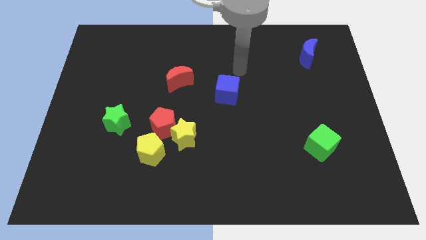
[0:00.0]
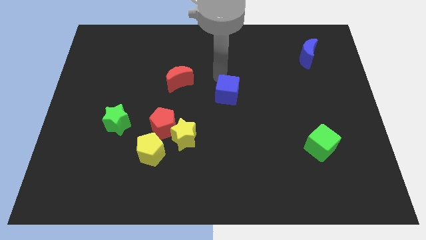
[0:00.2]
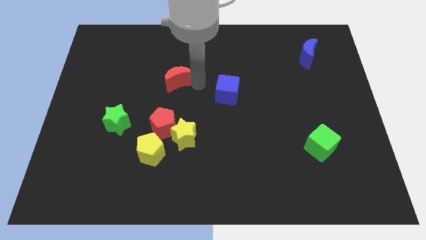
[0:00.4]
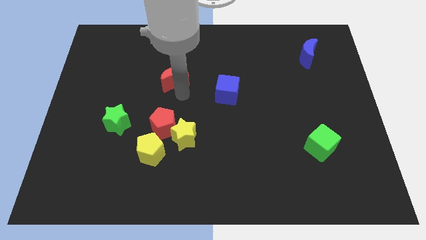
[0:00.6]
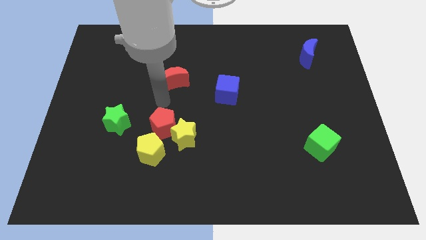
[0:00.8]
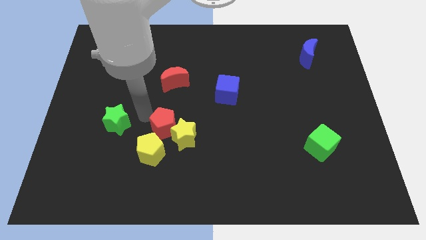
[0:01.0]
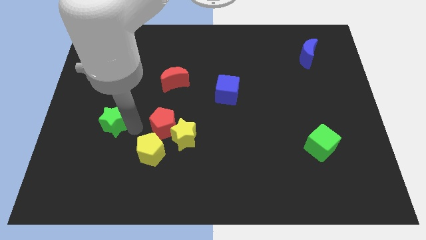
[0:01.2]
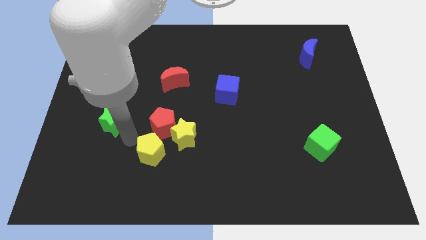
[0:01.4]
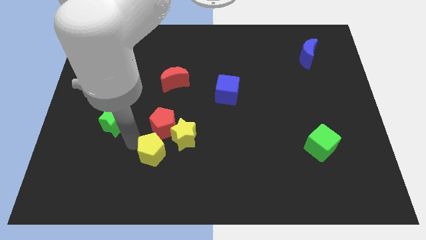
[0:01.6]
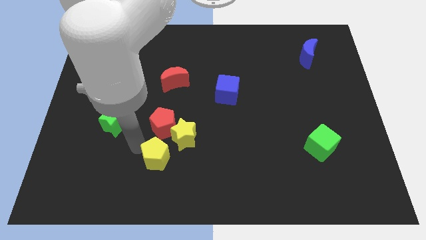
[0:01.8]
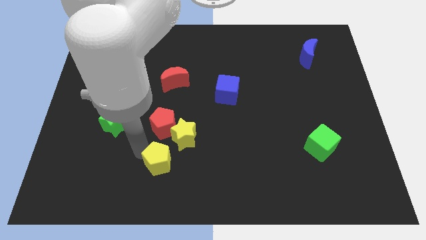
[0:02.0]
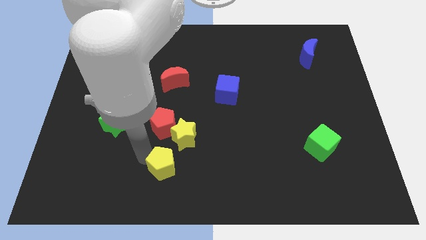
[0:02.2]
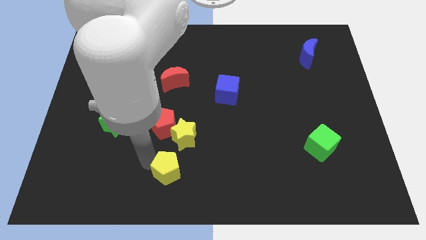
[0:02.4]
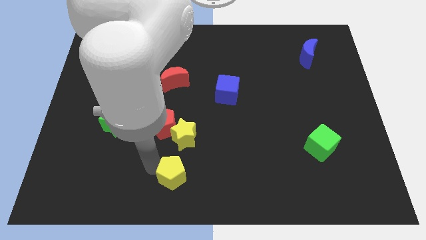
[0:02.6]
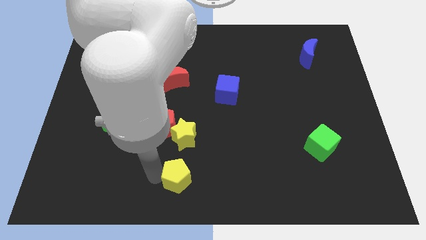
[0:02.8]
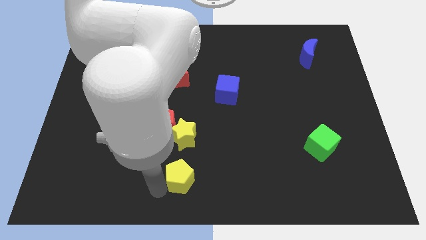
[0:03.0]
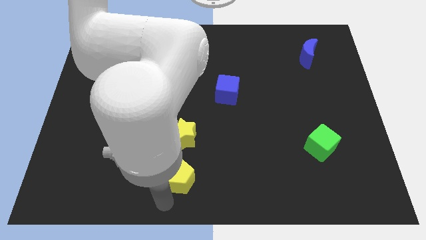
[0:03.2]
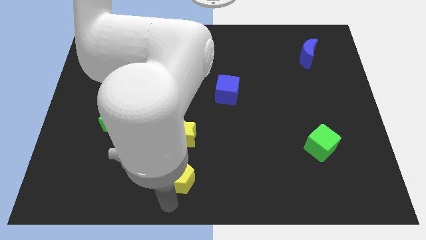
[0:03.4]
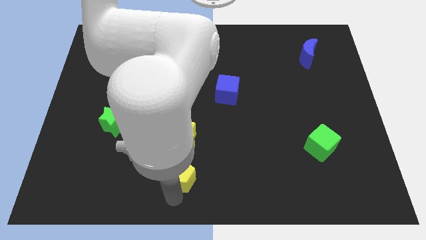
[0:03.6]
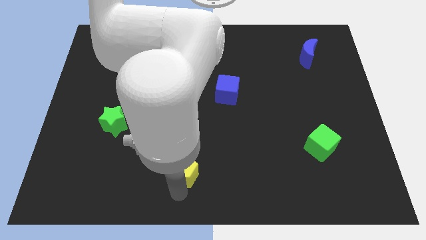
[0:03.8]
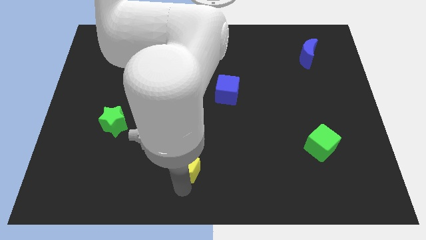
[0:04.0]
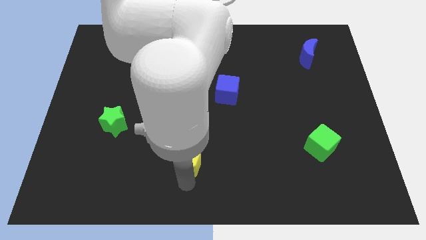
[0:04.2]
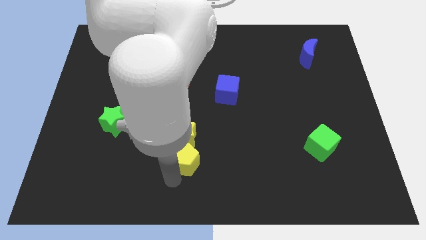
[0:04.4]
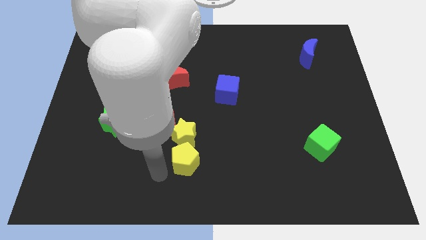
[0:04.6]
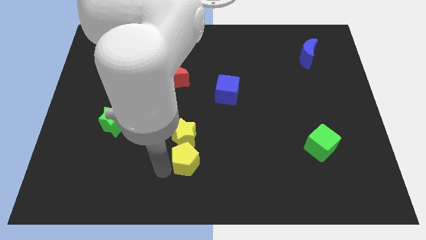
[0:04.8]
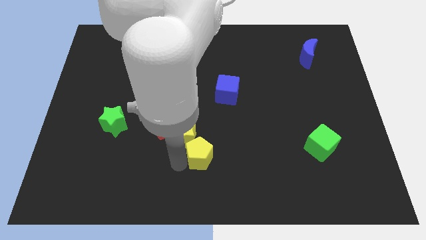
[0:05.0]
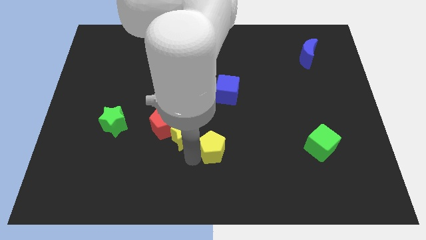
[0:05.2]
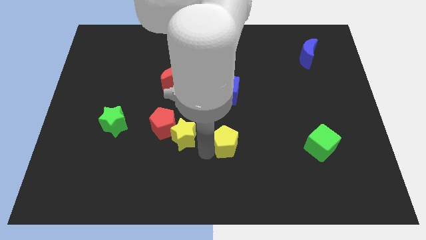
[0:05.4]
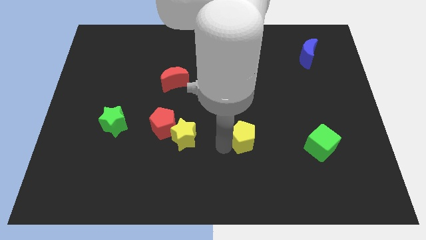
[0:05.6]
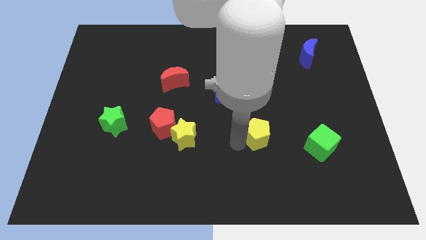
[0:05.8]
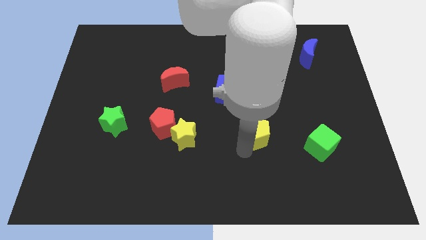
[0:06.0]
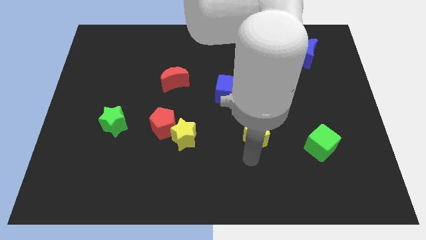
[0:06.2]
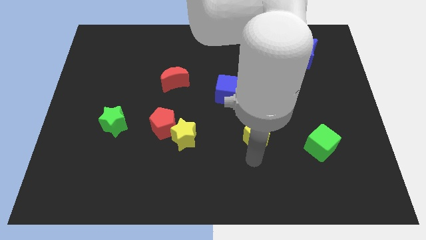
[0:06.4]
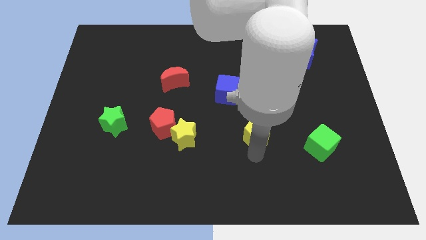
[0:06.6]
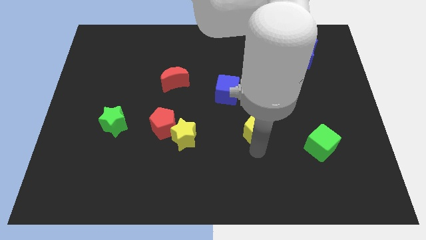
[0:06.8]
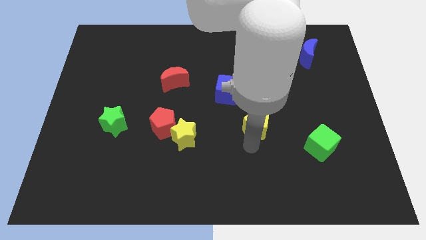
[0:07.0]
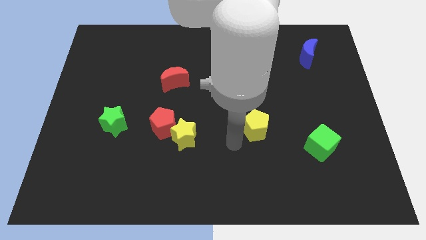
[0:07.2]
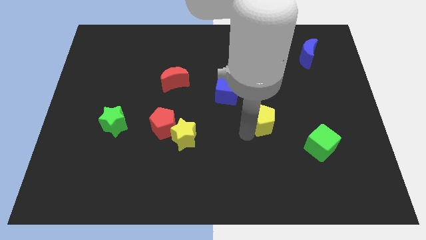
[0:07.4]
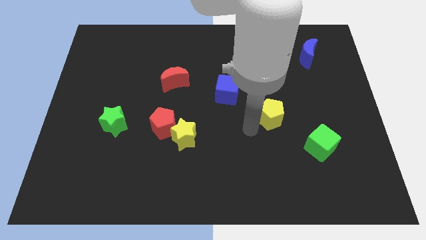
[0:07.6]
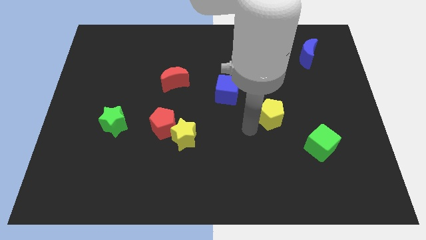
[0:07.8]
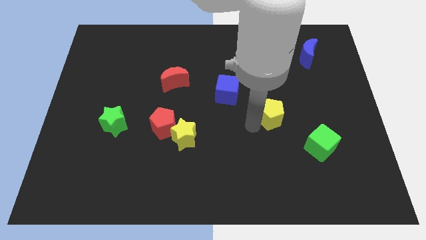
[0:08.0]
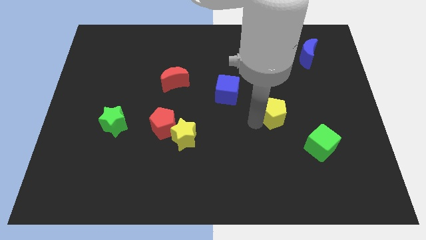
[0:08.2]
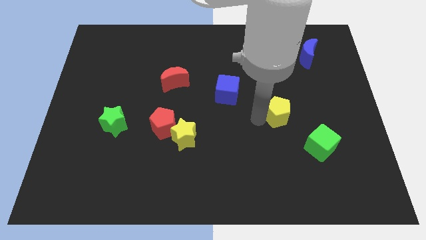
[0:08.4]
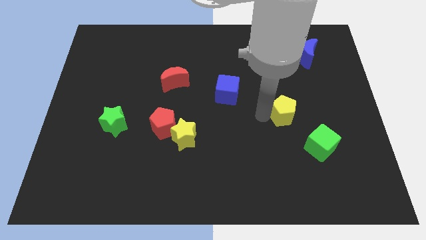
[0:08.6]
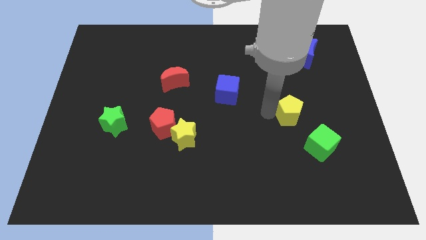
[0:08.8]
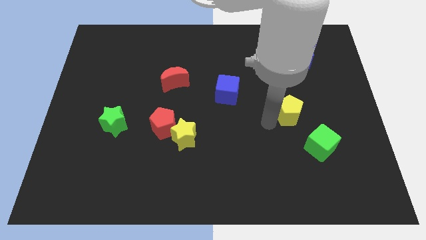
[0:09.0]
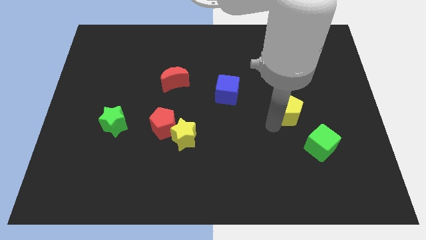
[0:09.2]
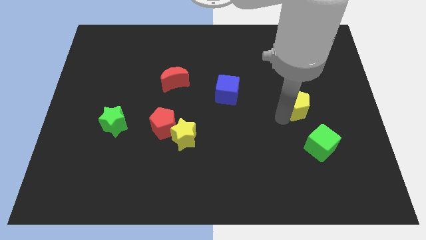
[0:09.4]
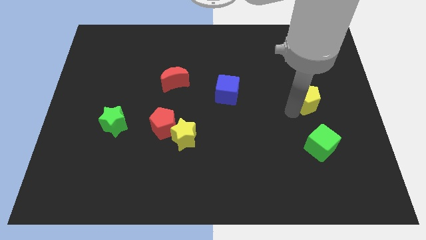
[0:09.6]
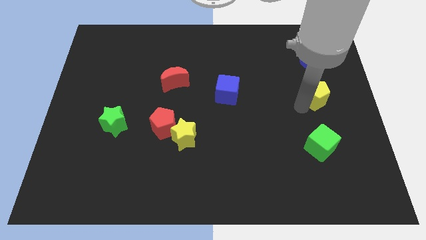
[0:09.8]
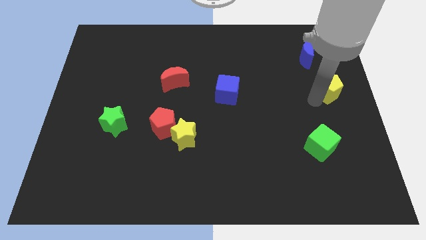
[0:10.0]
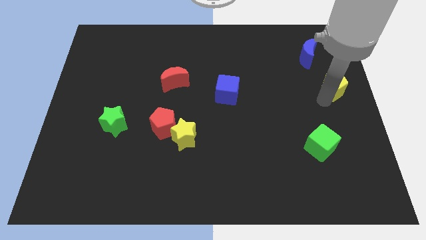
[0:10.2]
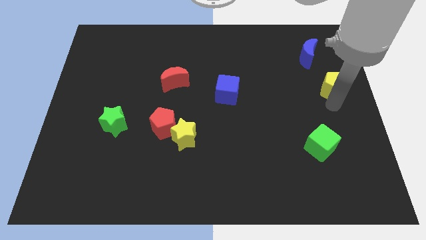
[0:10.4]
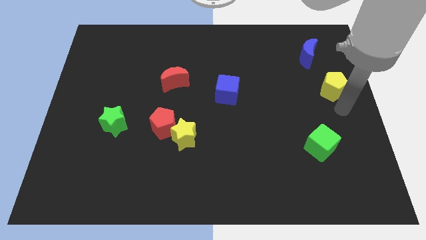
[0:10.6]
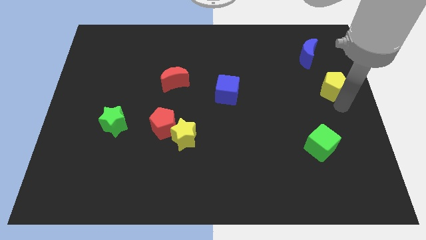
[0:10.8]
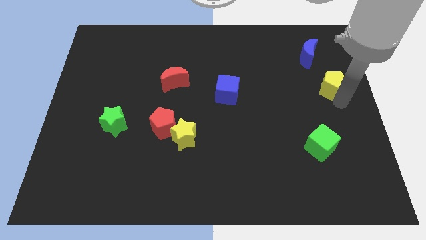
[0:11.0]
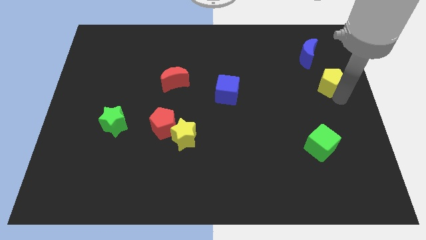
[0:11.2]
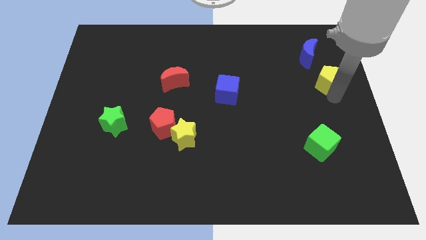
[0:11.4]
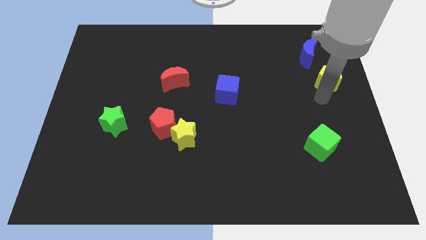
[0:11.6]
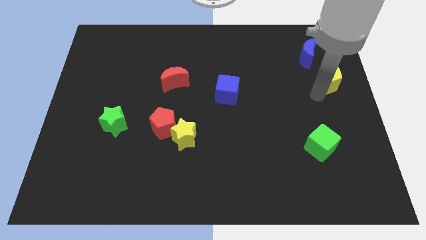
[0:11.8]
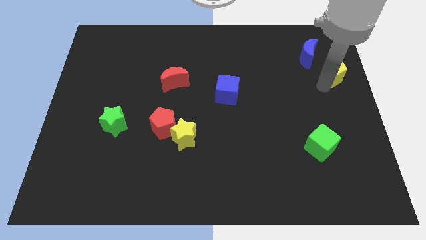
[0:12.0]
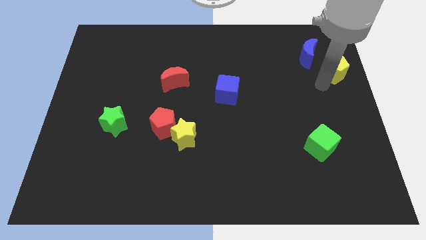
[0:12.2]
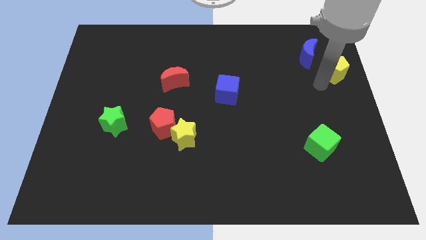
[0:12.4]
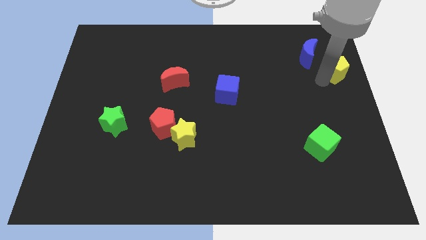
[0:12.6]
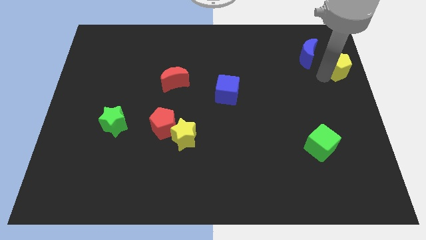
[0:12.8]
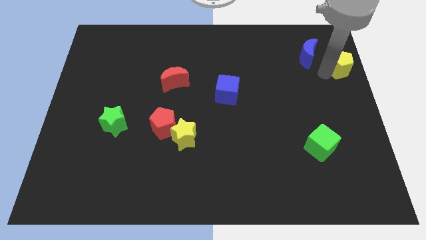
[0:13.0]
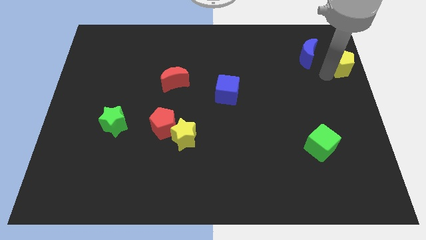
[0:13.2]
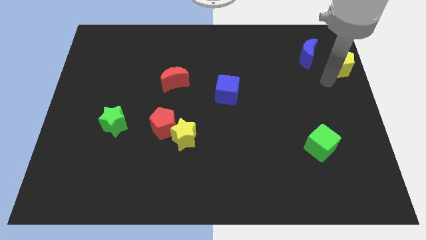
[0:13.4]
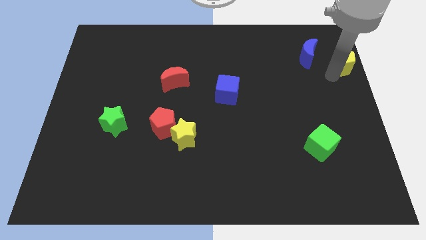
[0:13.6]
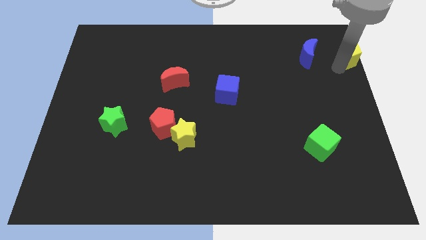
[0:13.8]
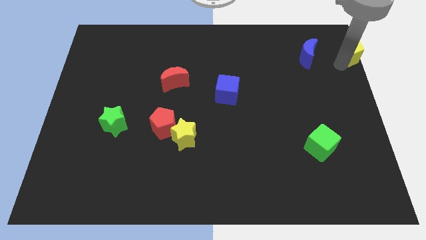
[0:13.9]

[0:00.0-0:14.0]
move the yellow pentagon to the top right corner
